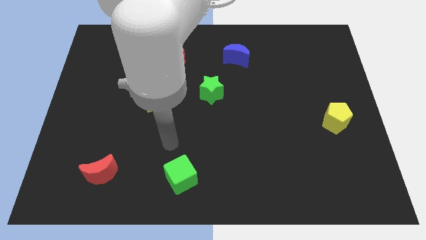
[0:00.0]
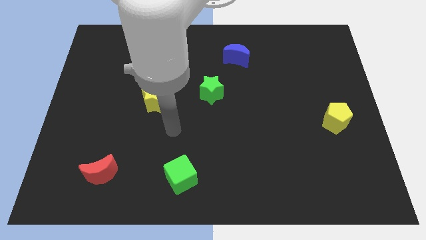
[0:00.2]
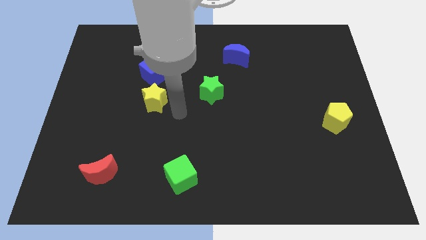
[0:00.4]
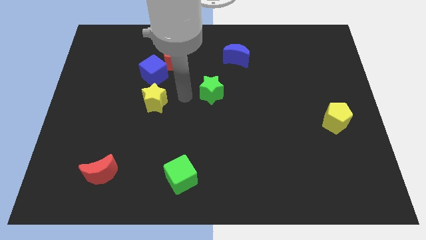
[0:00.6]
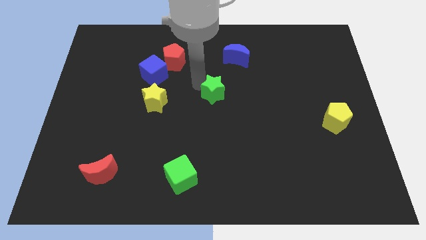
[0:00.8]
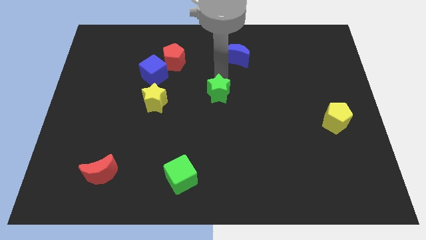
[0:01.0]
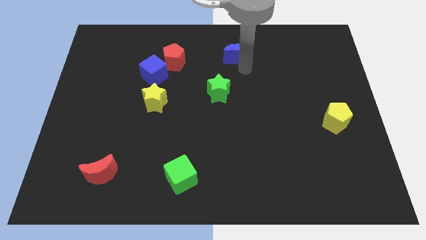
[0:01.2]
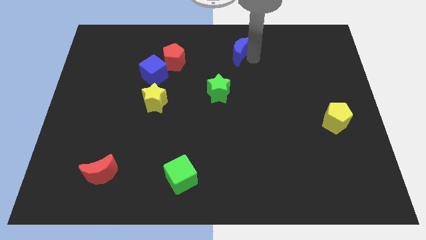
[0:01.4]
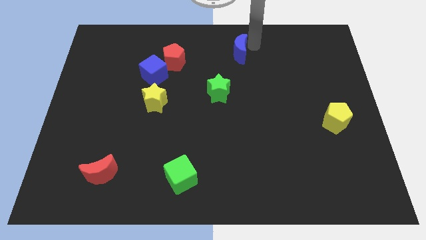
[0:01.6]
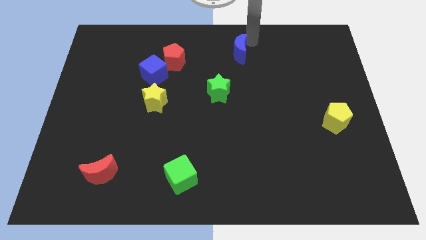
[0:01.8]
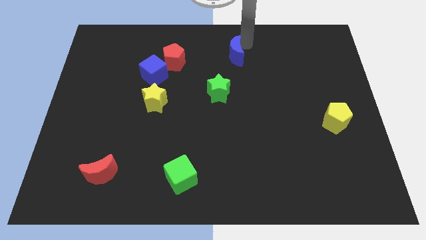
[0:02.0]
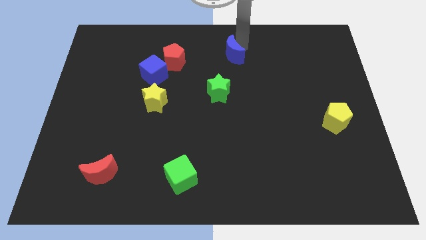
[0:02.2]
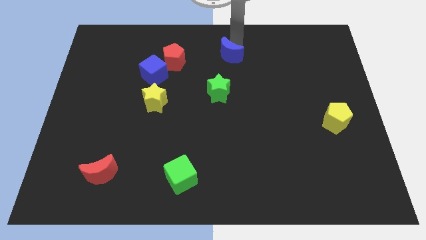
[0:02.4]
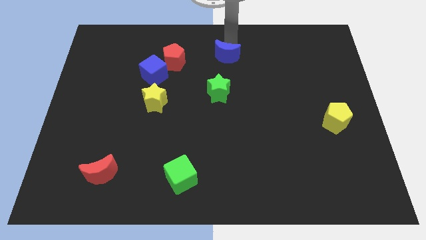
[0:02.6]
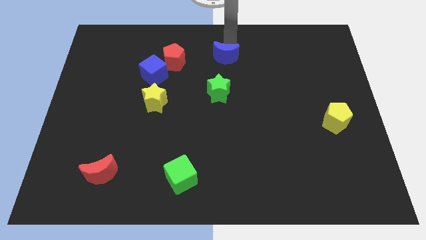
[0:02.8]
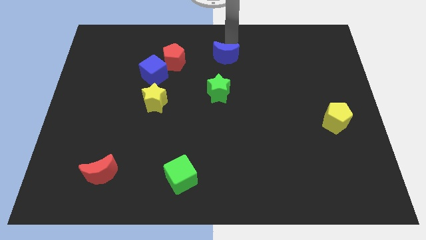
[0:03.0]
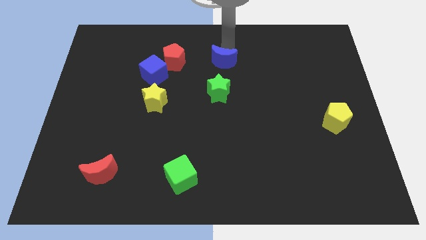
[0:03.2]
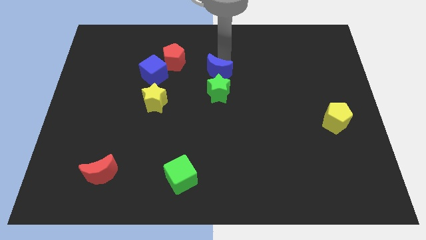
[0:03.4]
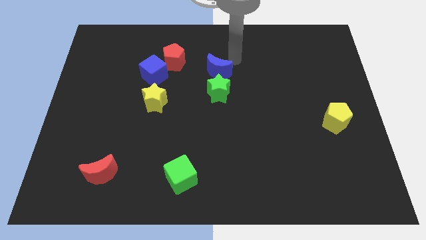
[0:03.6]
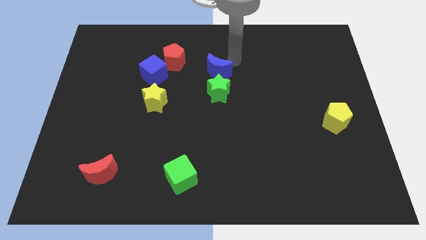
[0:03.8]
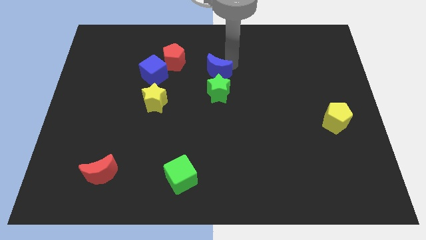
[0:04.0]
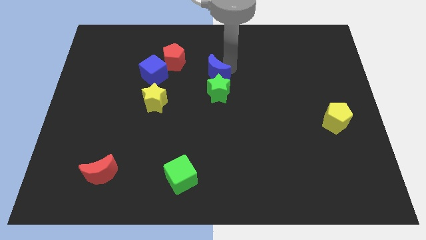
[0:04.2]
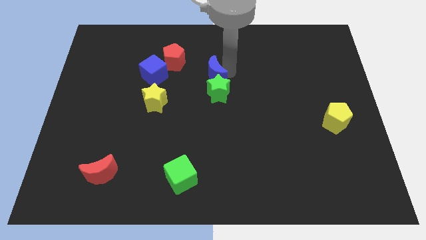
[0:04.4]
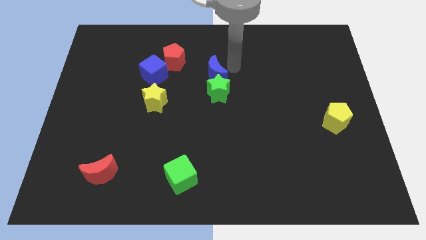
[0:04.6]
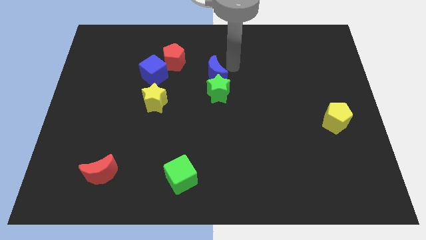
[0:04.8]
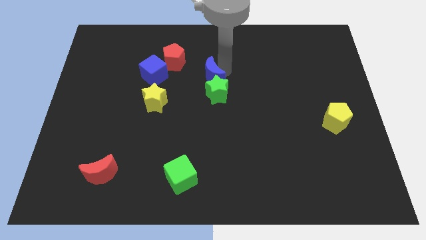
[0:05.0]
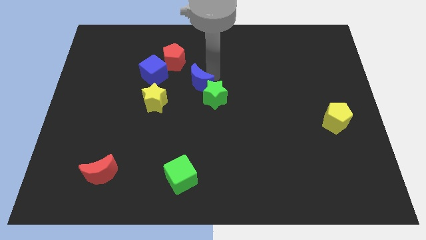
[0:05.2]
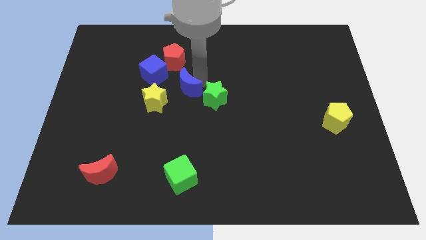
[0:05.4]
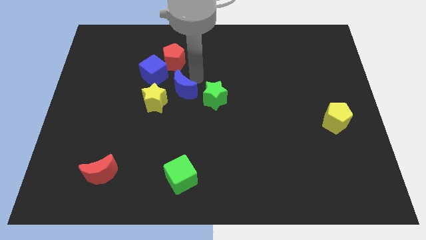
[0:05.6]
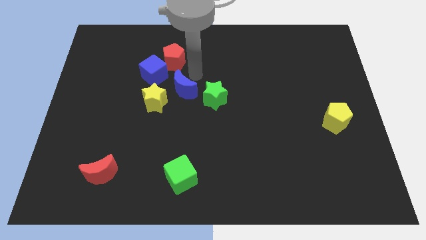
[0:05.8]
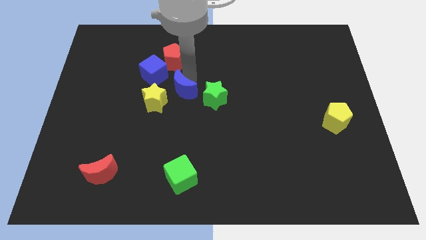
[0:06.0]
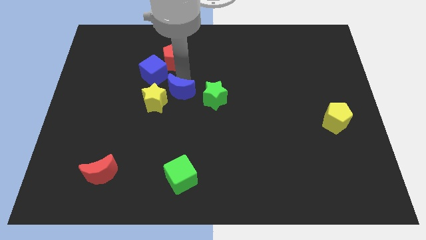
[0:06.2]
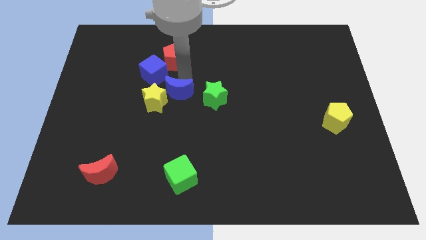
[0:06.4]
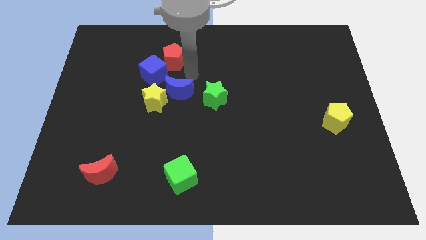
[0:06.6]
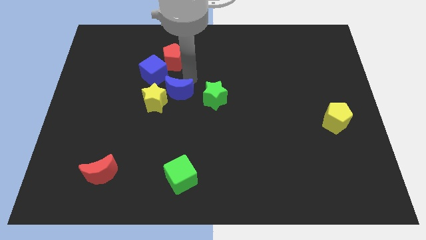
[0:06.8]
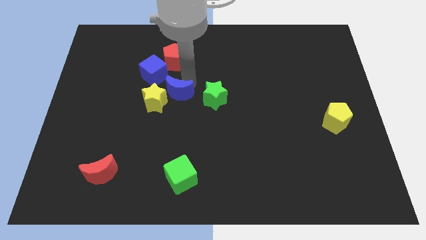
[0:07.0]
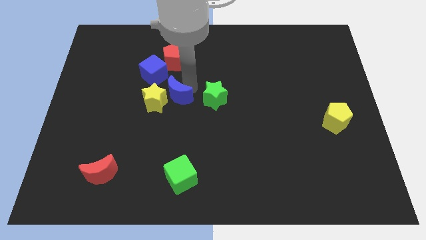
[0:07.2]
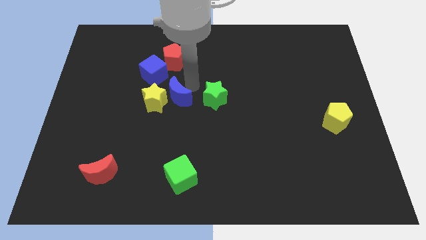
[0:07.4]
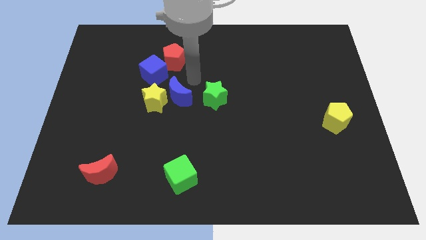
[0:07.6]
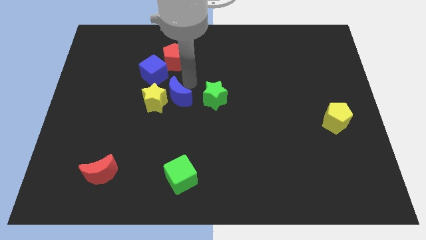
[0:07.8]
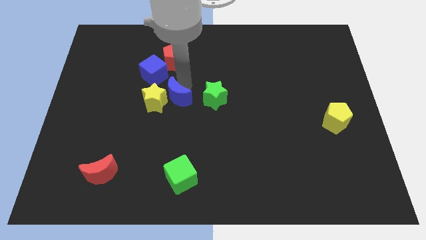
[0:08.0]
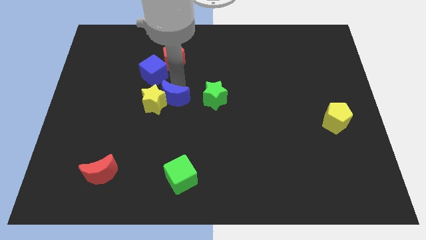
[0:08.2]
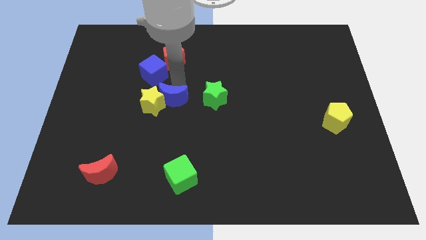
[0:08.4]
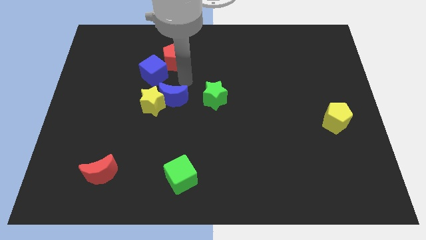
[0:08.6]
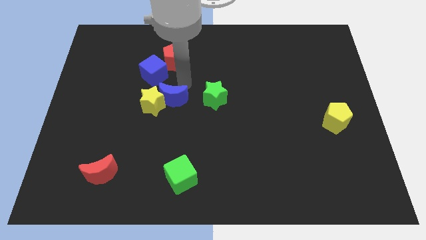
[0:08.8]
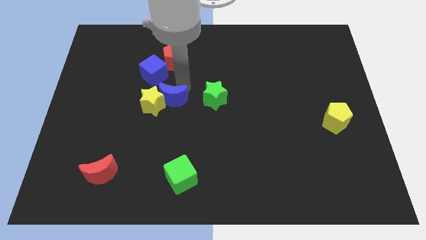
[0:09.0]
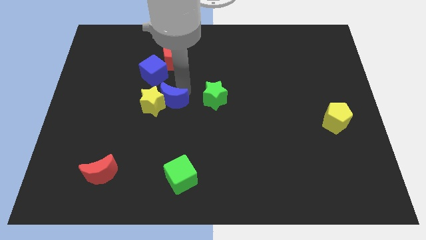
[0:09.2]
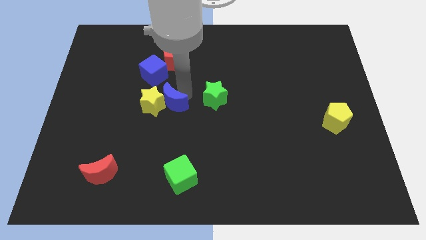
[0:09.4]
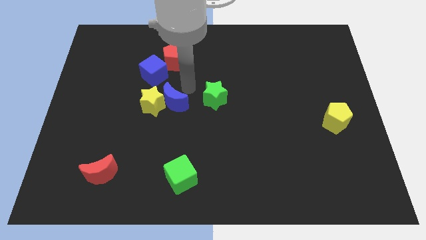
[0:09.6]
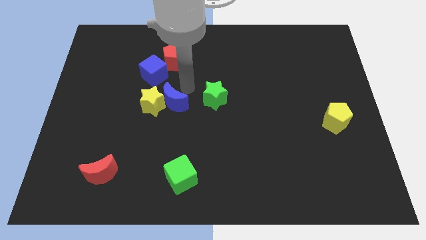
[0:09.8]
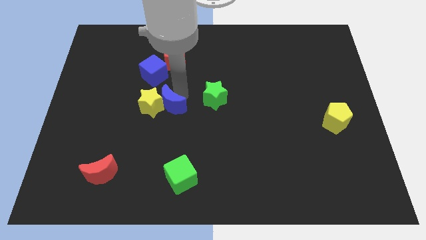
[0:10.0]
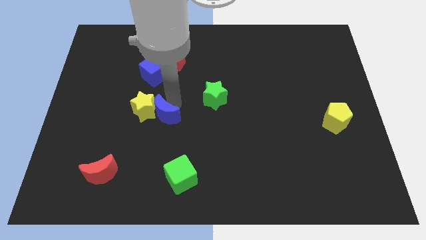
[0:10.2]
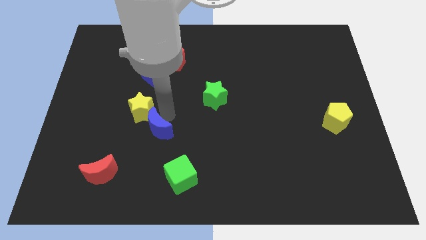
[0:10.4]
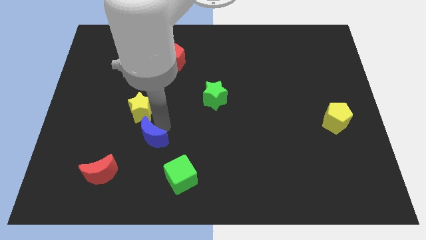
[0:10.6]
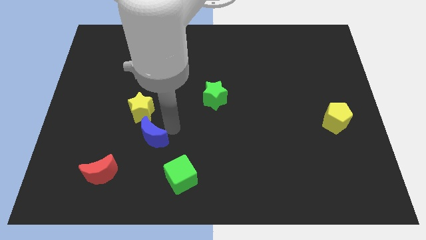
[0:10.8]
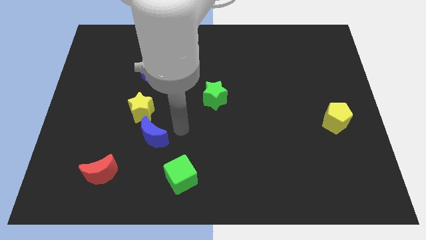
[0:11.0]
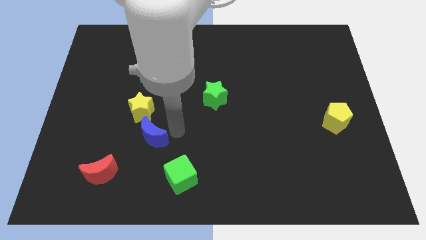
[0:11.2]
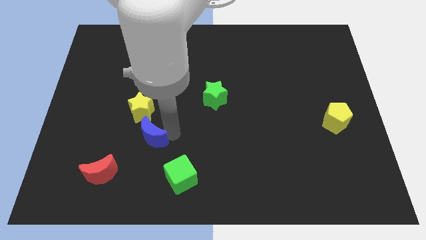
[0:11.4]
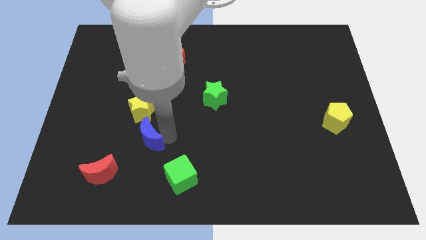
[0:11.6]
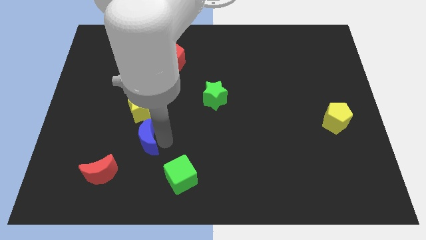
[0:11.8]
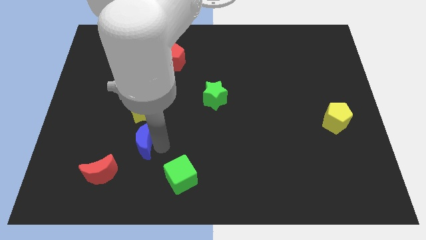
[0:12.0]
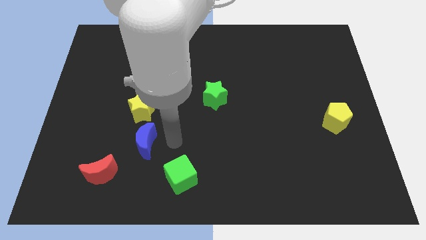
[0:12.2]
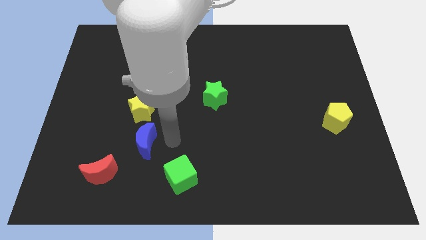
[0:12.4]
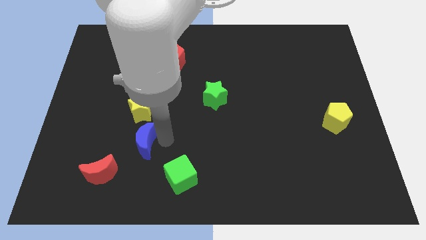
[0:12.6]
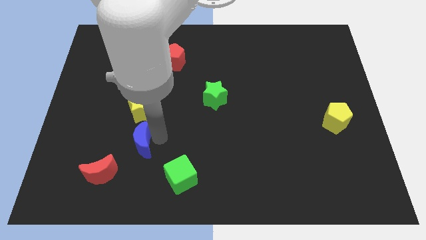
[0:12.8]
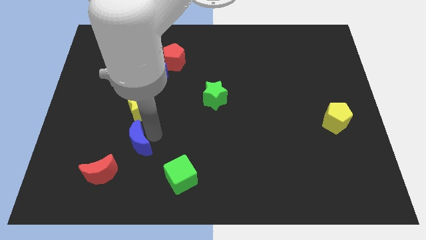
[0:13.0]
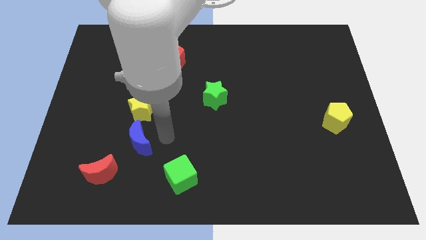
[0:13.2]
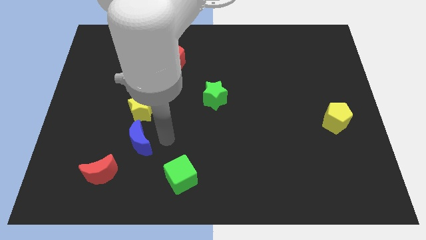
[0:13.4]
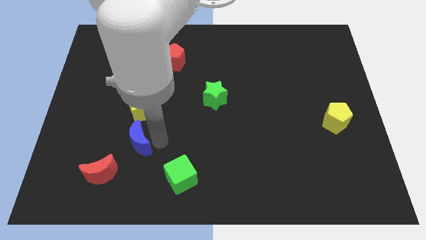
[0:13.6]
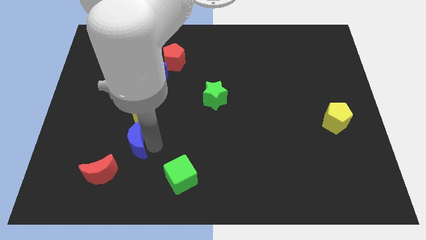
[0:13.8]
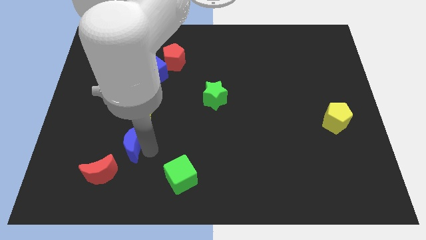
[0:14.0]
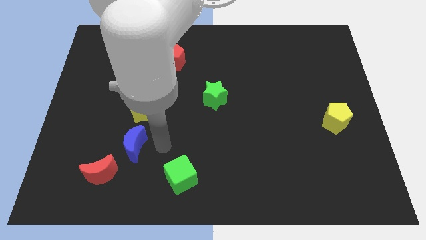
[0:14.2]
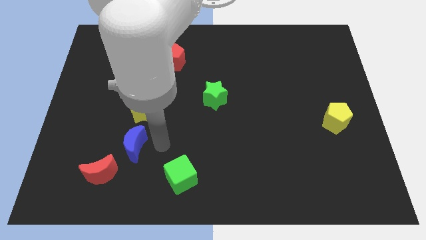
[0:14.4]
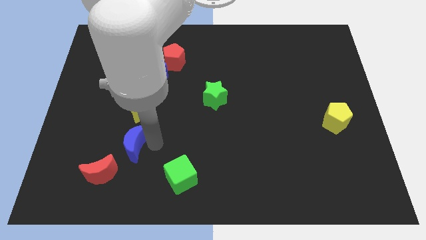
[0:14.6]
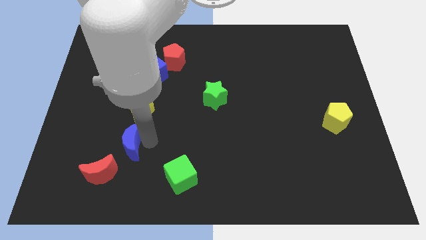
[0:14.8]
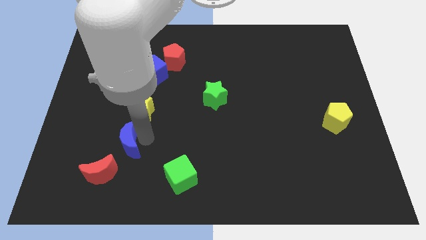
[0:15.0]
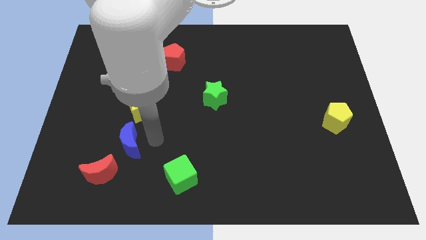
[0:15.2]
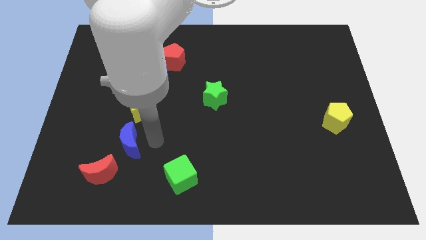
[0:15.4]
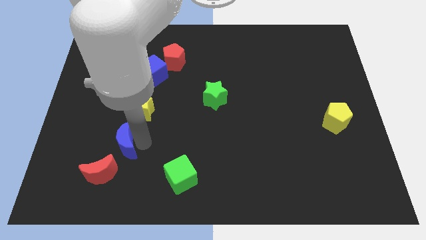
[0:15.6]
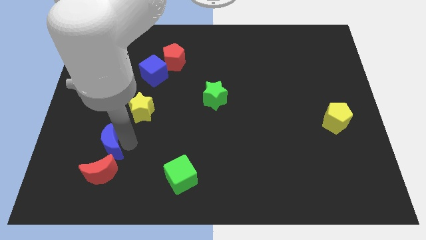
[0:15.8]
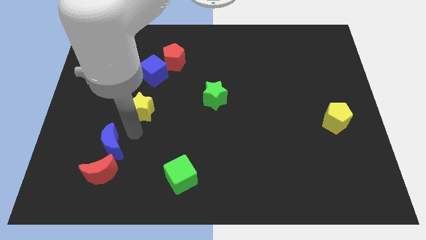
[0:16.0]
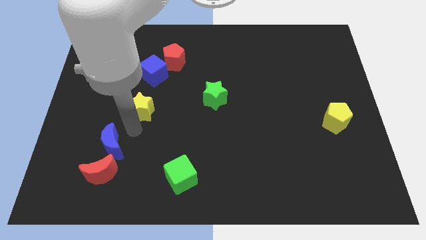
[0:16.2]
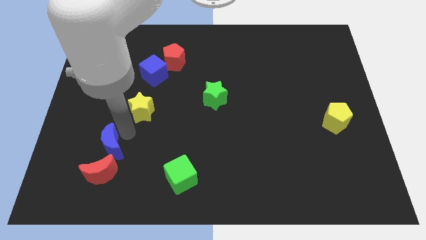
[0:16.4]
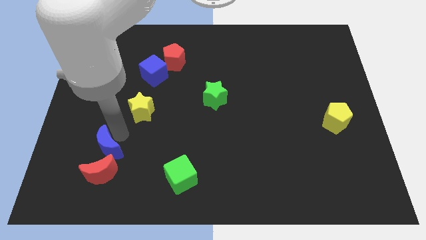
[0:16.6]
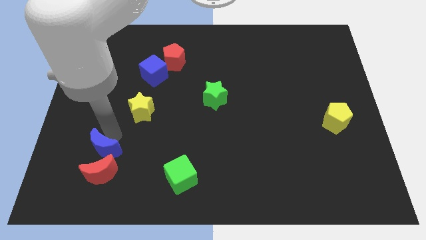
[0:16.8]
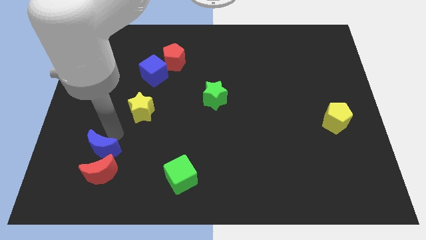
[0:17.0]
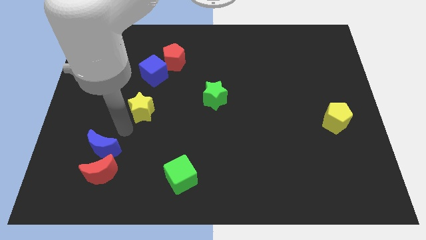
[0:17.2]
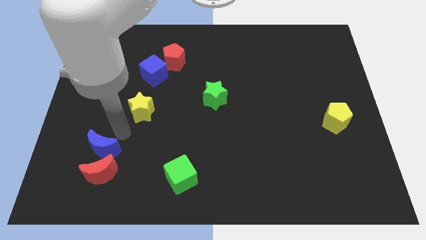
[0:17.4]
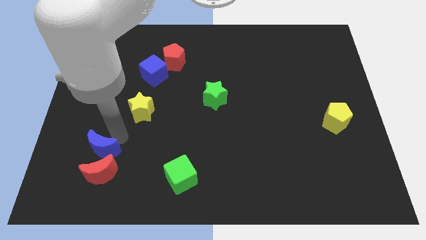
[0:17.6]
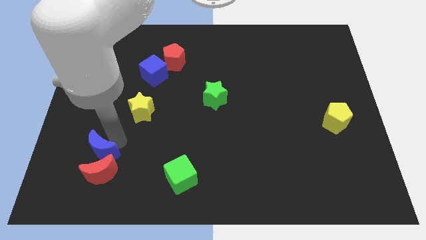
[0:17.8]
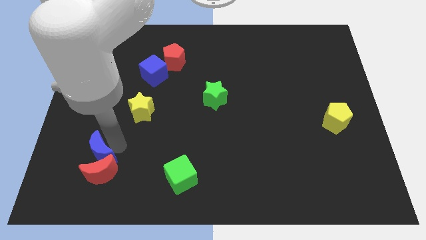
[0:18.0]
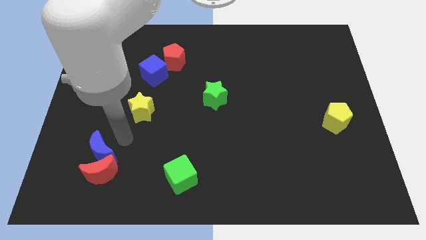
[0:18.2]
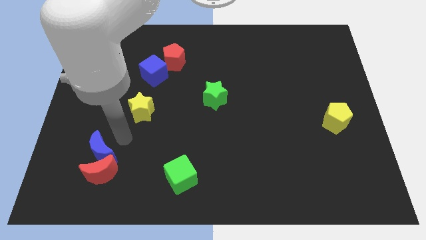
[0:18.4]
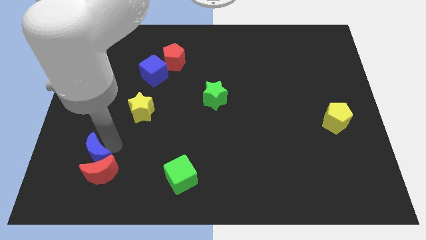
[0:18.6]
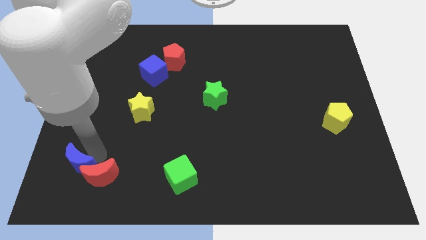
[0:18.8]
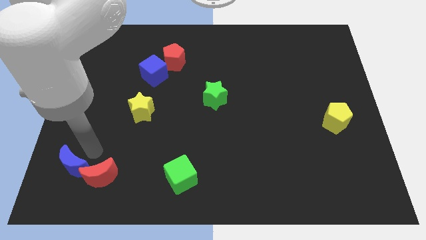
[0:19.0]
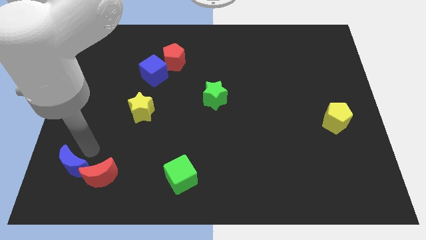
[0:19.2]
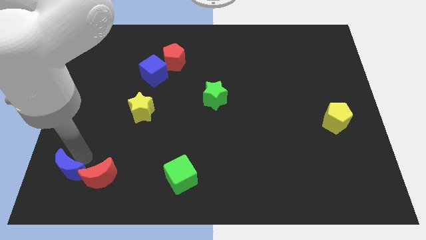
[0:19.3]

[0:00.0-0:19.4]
put the blue moon to the bottom left of the board
